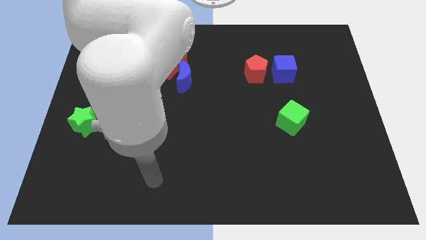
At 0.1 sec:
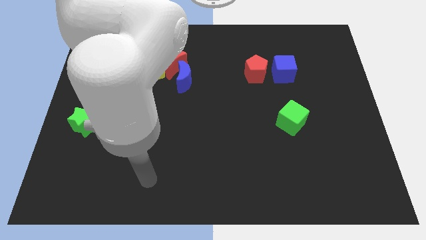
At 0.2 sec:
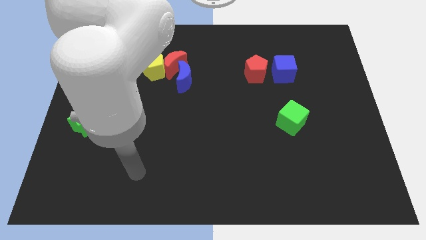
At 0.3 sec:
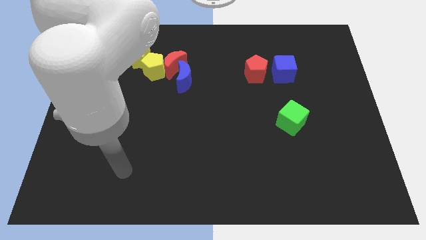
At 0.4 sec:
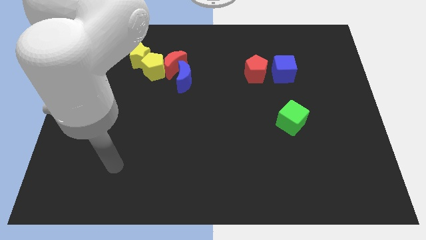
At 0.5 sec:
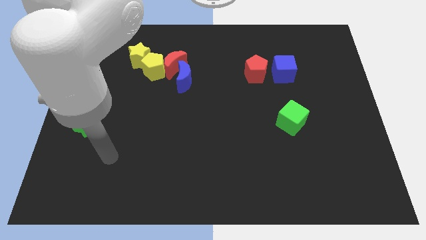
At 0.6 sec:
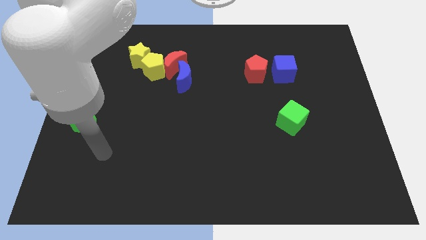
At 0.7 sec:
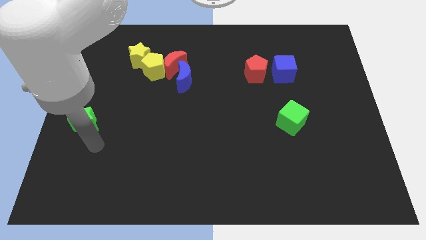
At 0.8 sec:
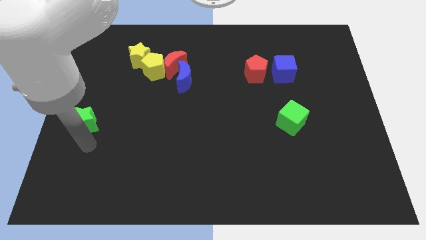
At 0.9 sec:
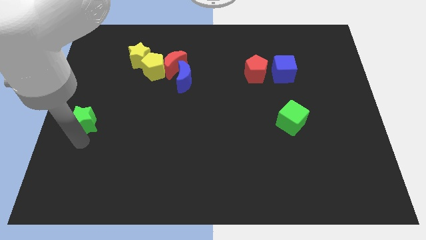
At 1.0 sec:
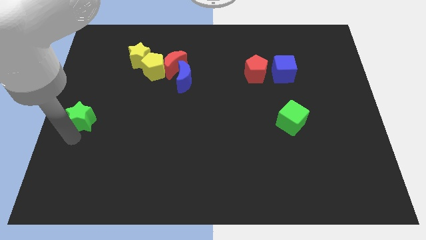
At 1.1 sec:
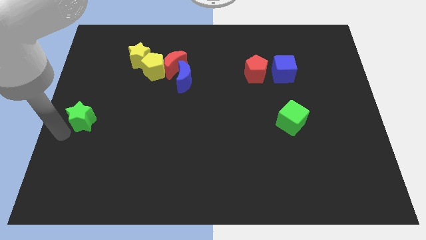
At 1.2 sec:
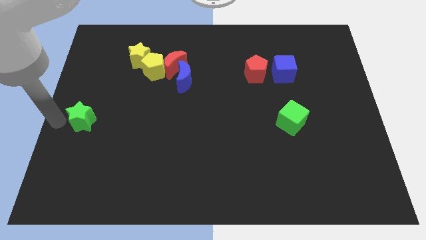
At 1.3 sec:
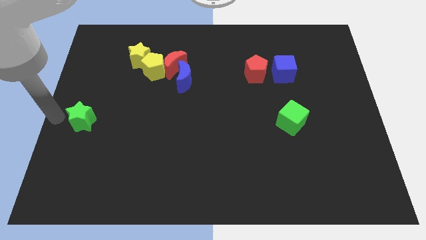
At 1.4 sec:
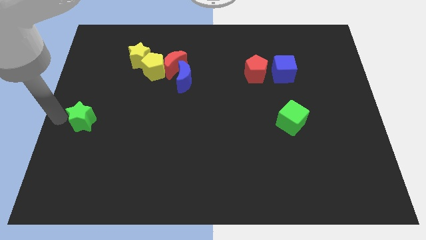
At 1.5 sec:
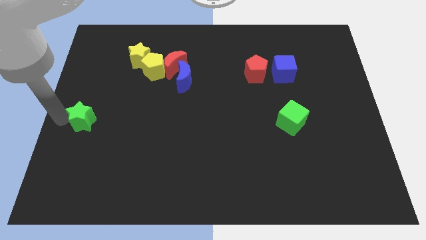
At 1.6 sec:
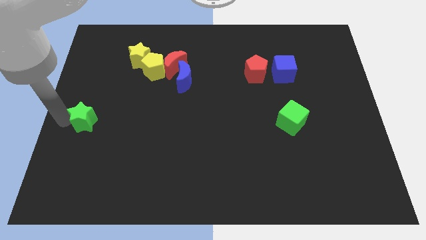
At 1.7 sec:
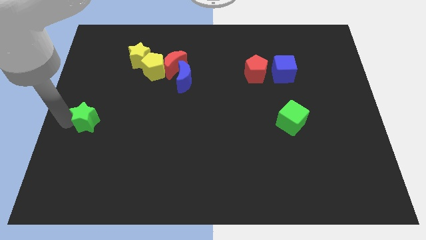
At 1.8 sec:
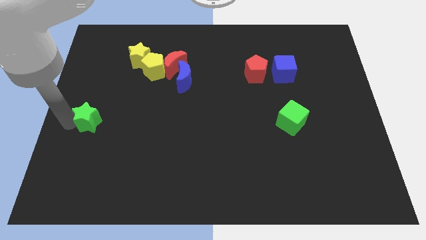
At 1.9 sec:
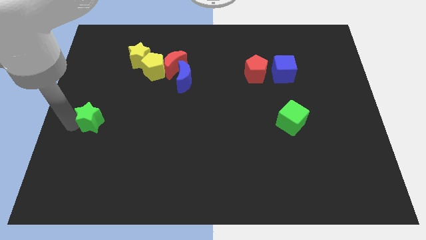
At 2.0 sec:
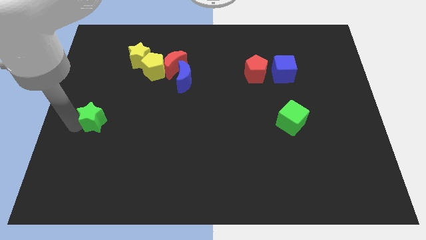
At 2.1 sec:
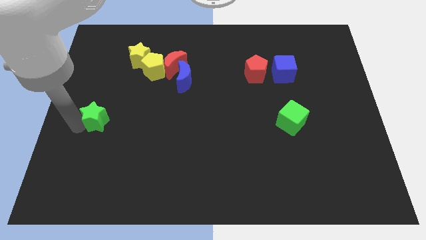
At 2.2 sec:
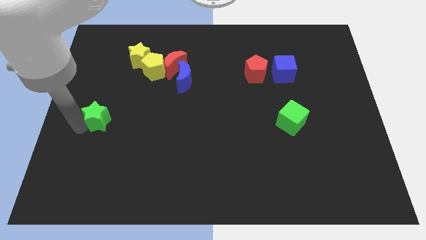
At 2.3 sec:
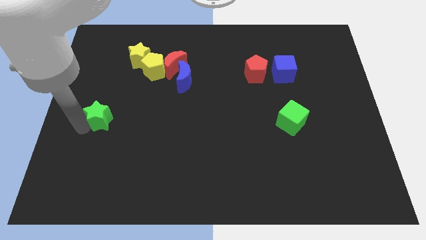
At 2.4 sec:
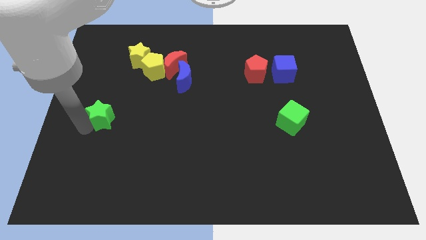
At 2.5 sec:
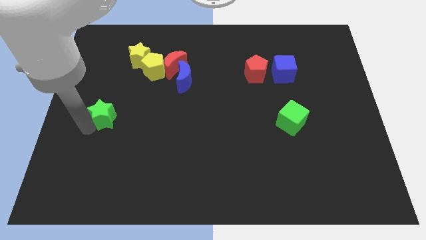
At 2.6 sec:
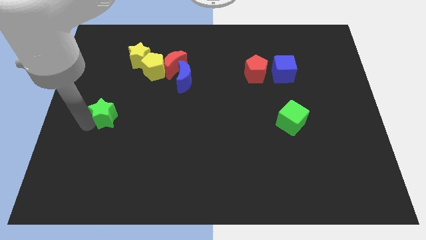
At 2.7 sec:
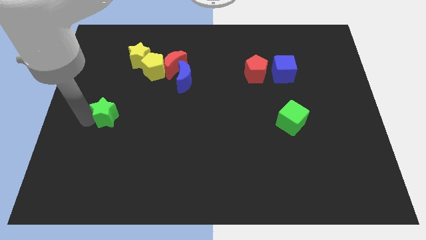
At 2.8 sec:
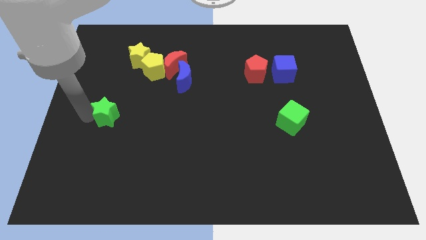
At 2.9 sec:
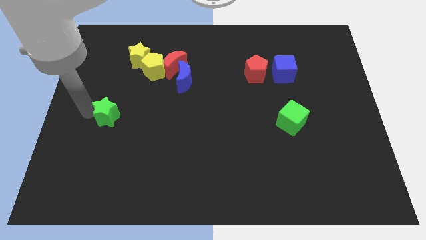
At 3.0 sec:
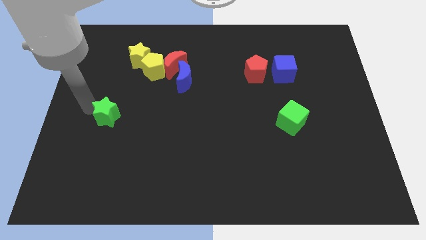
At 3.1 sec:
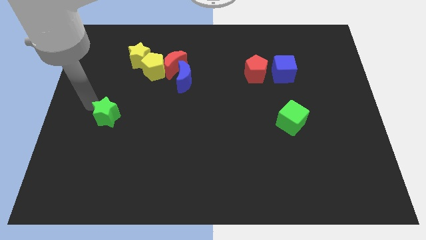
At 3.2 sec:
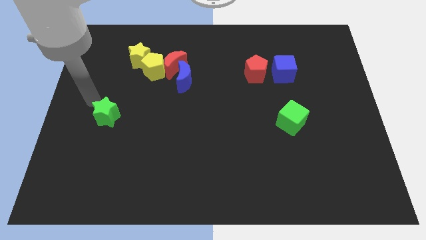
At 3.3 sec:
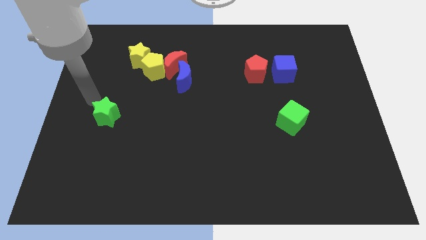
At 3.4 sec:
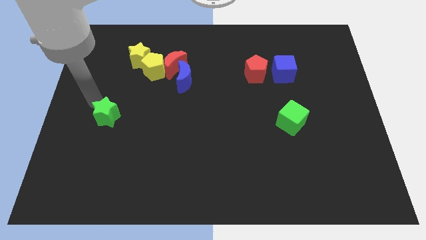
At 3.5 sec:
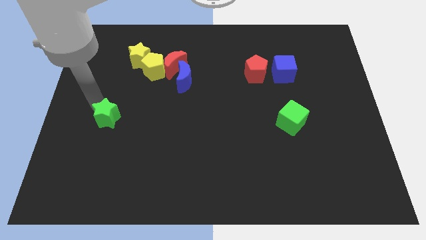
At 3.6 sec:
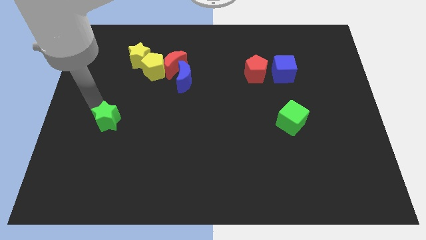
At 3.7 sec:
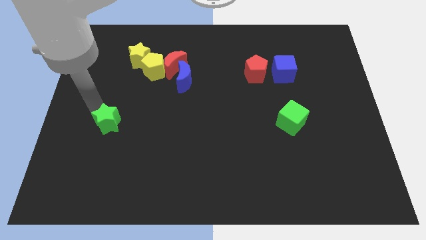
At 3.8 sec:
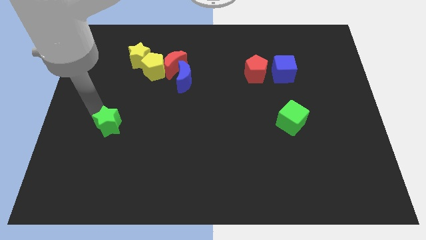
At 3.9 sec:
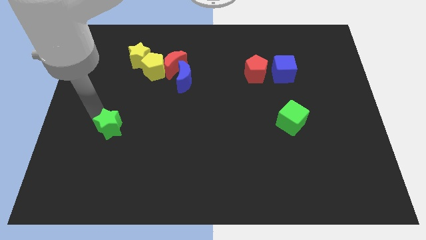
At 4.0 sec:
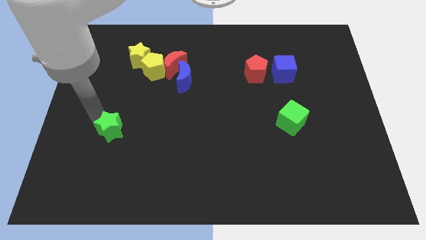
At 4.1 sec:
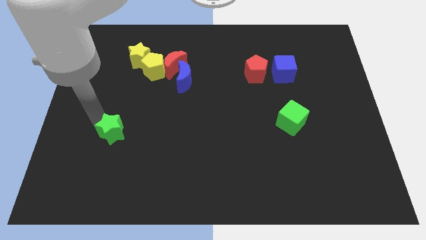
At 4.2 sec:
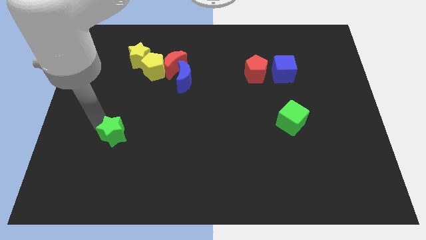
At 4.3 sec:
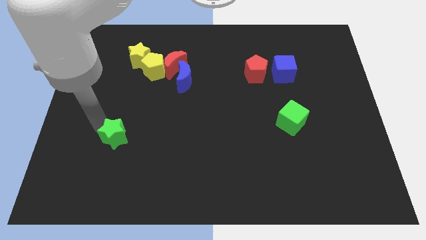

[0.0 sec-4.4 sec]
push the green star to the right a little

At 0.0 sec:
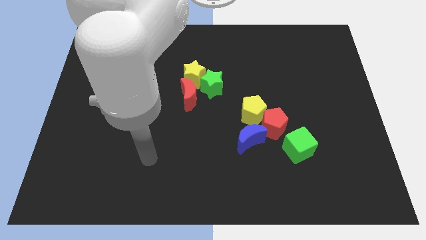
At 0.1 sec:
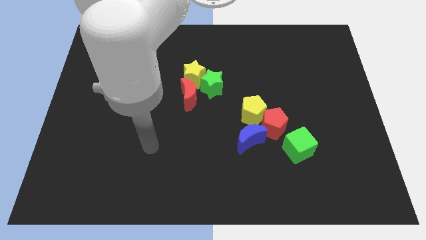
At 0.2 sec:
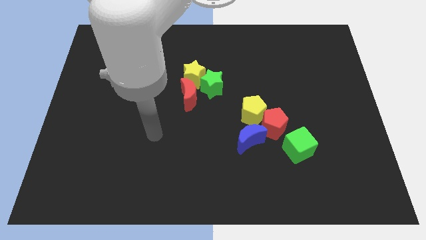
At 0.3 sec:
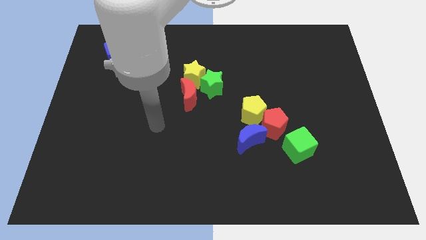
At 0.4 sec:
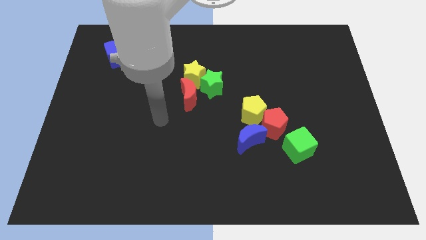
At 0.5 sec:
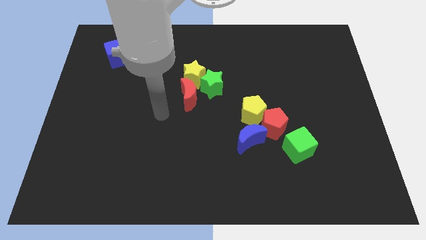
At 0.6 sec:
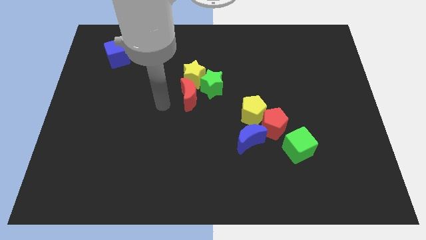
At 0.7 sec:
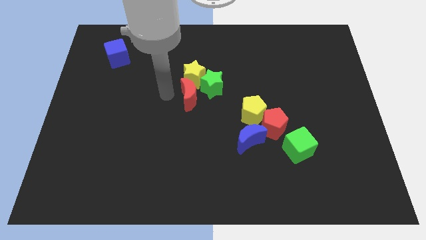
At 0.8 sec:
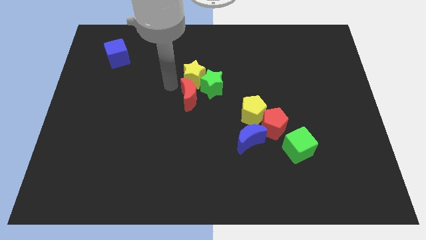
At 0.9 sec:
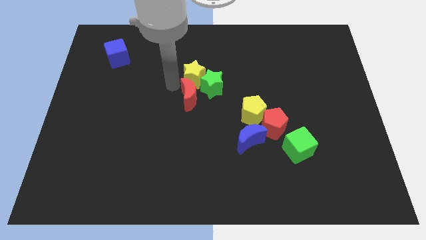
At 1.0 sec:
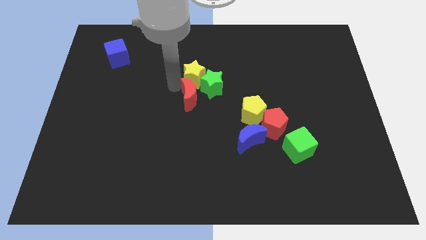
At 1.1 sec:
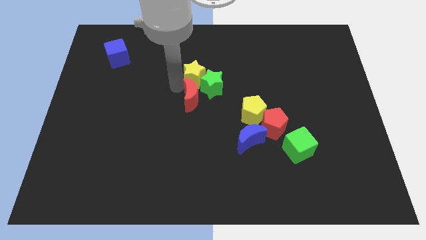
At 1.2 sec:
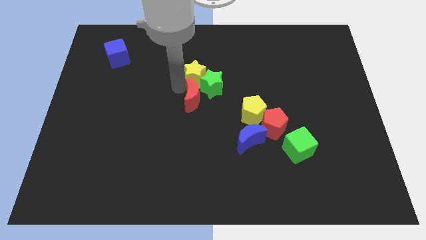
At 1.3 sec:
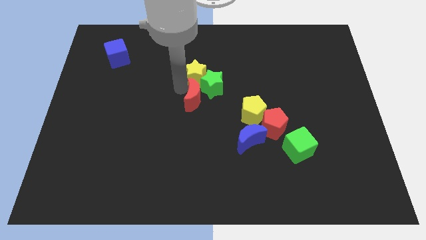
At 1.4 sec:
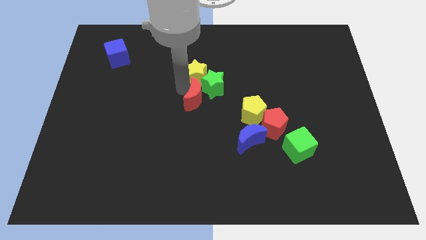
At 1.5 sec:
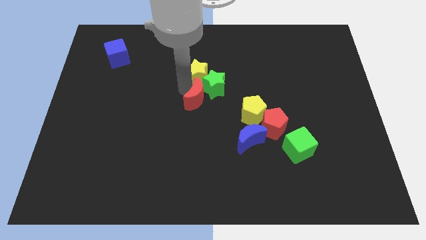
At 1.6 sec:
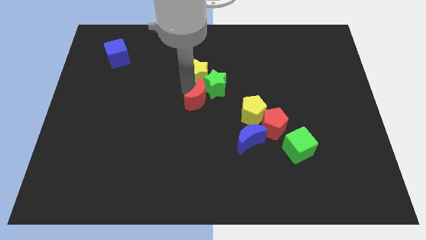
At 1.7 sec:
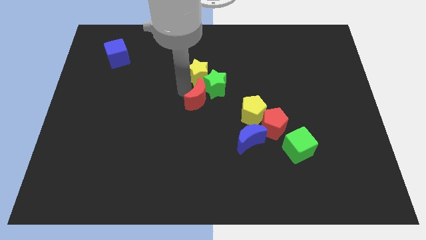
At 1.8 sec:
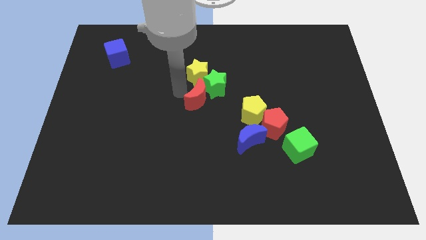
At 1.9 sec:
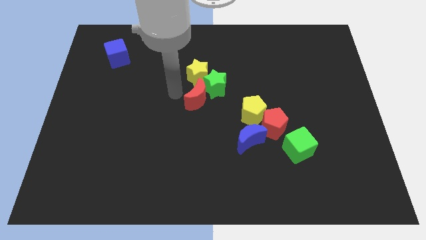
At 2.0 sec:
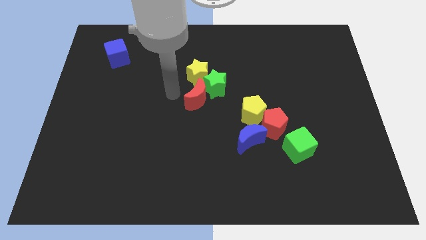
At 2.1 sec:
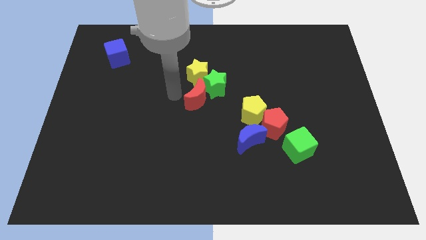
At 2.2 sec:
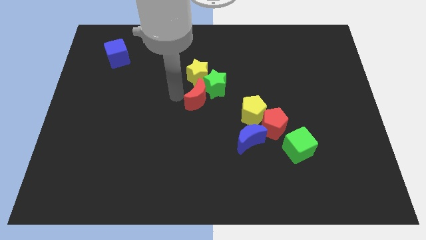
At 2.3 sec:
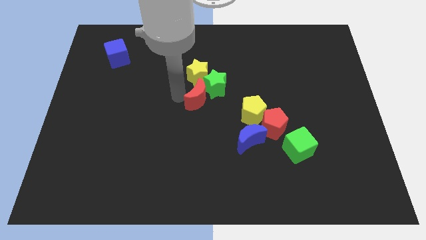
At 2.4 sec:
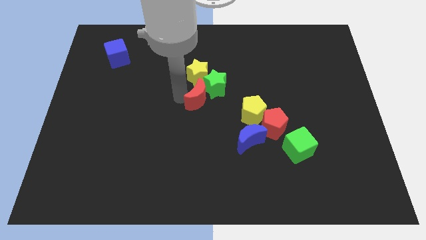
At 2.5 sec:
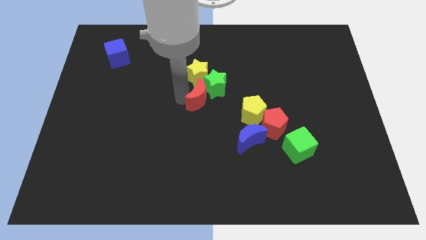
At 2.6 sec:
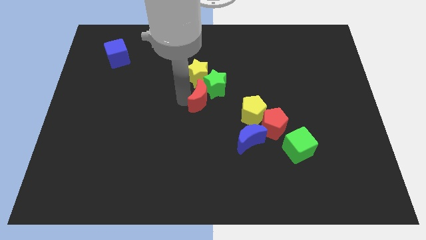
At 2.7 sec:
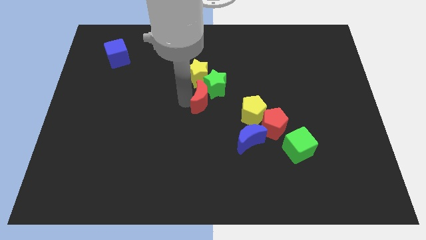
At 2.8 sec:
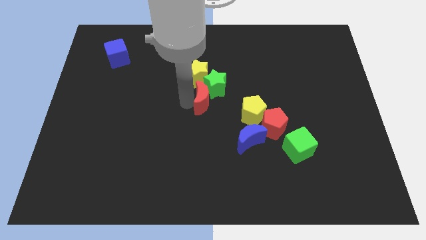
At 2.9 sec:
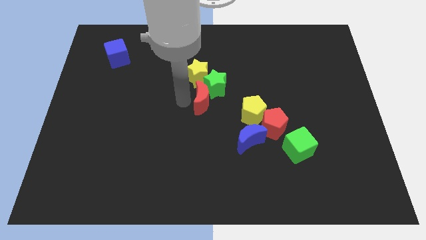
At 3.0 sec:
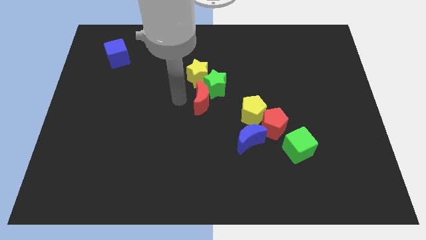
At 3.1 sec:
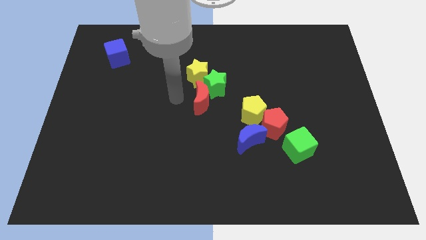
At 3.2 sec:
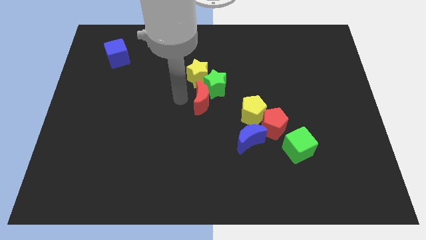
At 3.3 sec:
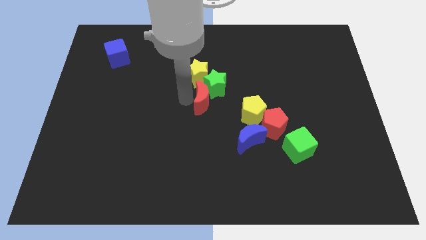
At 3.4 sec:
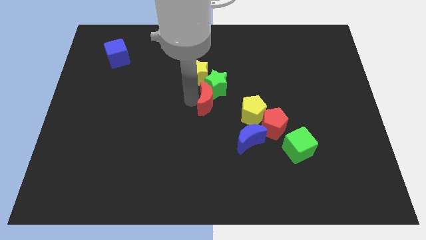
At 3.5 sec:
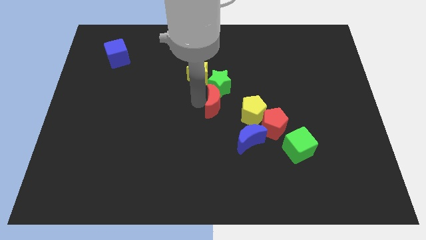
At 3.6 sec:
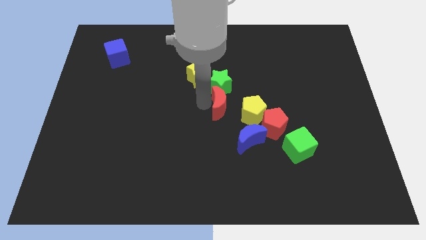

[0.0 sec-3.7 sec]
slightly push the red moon to the right
